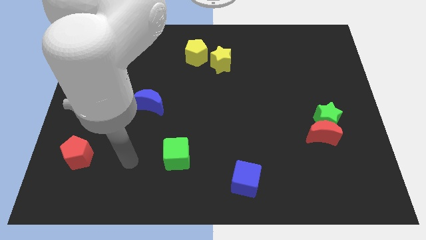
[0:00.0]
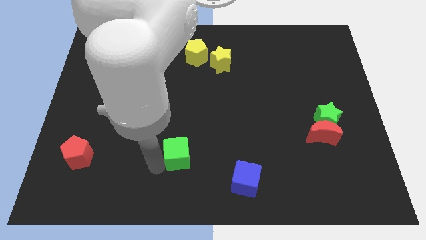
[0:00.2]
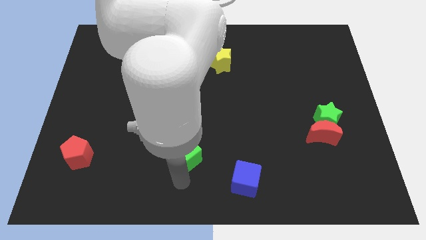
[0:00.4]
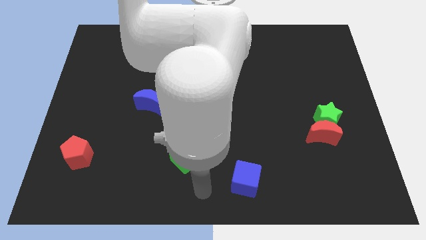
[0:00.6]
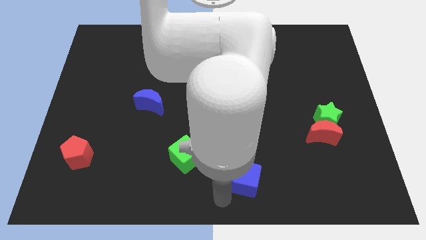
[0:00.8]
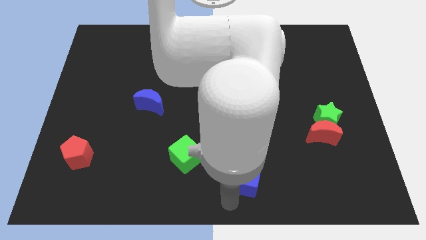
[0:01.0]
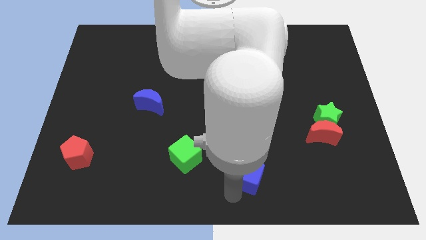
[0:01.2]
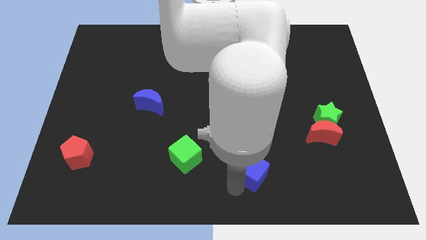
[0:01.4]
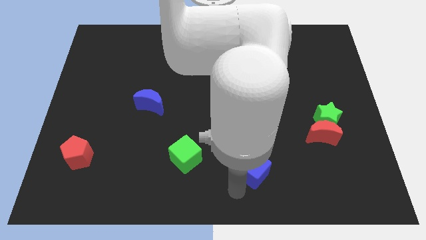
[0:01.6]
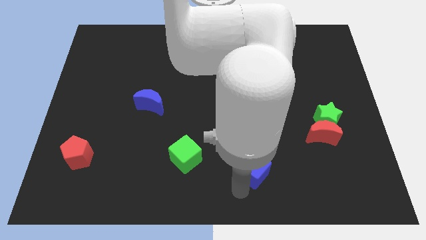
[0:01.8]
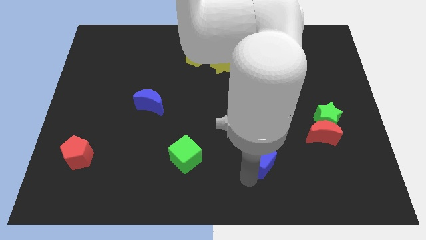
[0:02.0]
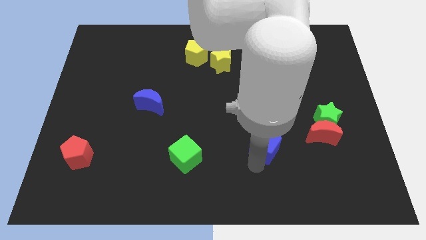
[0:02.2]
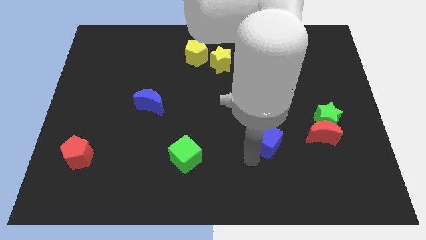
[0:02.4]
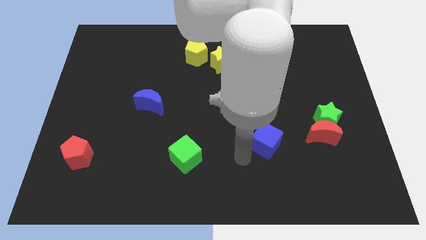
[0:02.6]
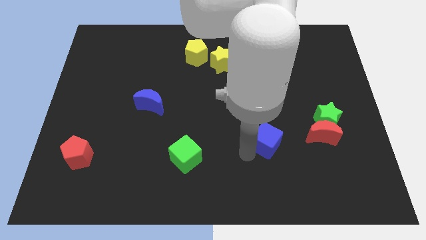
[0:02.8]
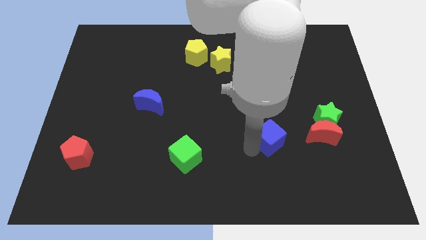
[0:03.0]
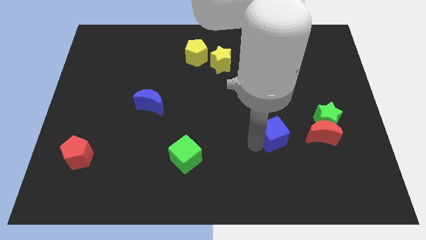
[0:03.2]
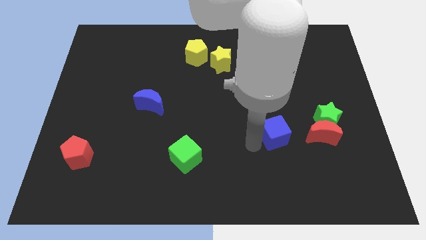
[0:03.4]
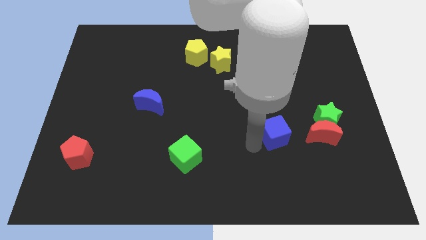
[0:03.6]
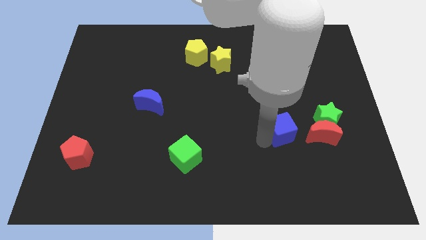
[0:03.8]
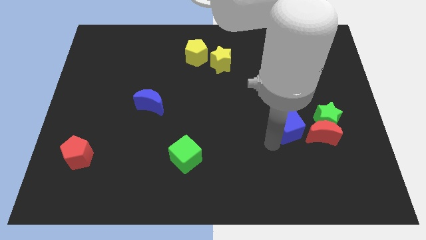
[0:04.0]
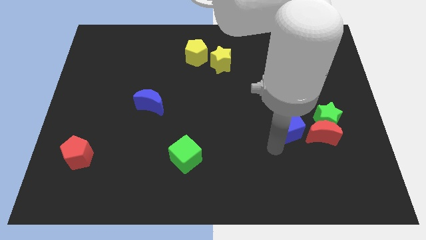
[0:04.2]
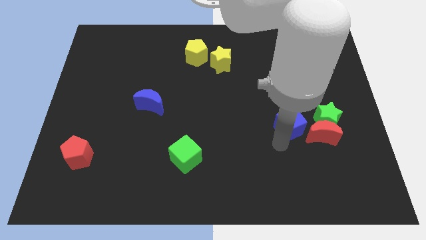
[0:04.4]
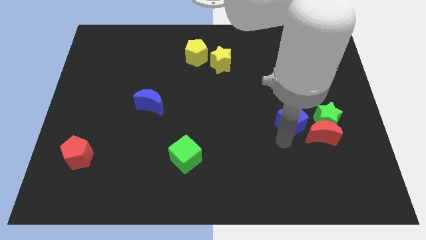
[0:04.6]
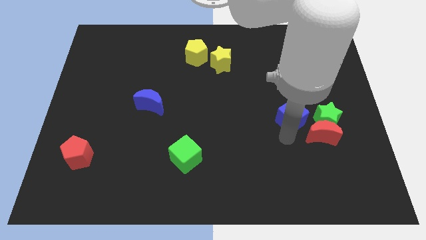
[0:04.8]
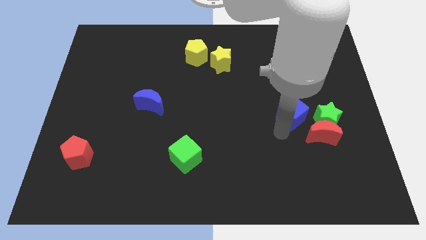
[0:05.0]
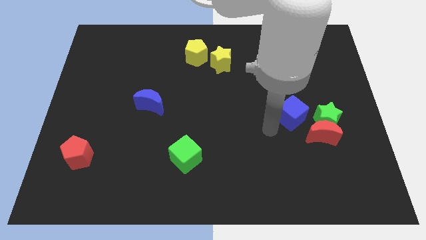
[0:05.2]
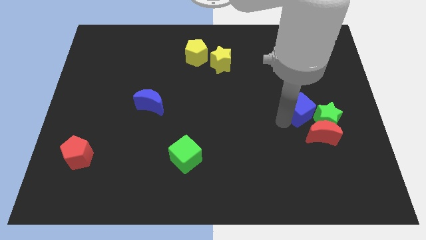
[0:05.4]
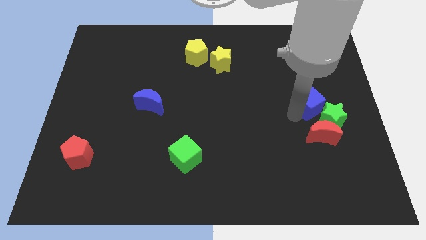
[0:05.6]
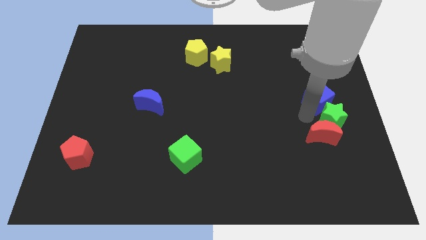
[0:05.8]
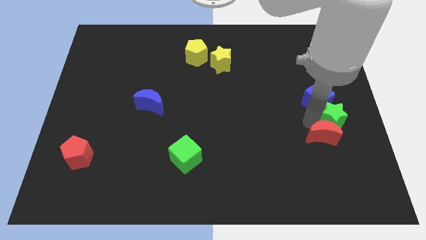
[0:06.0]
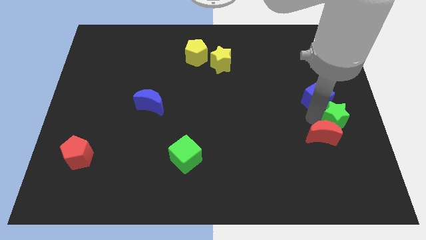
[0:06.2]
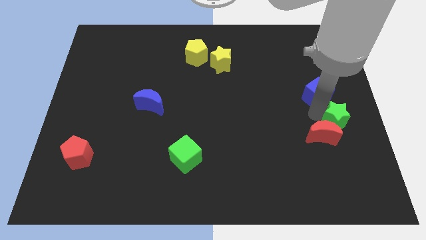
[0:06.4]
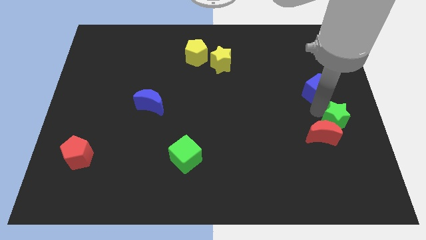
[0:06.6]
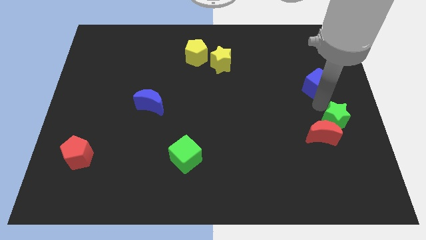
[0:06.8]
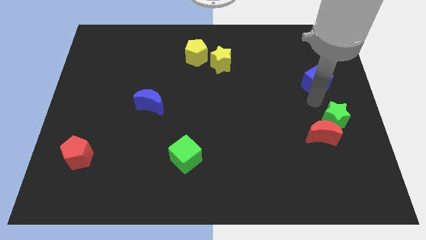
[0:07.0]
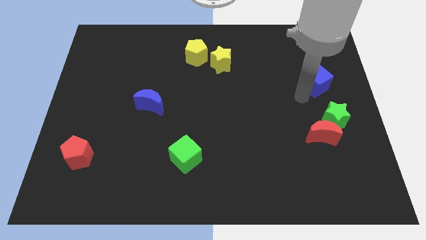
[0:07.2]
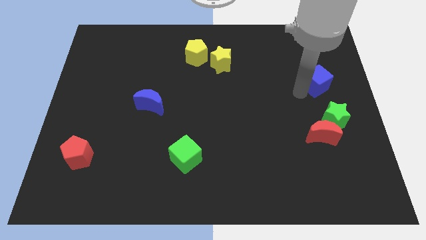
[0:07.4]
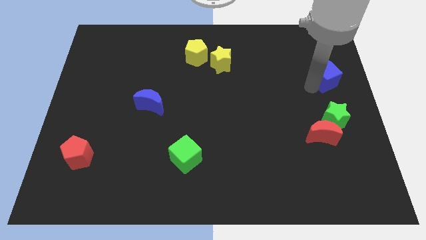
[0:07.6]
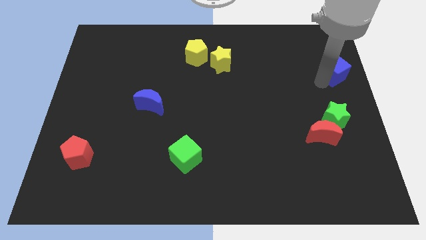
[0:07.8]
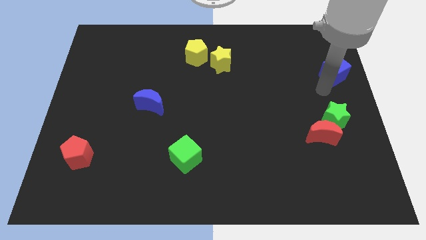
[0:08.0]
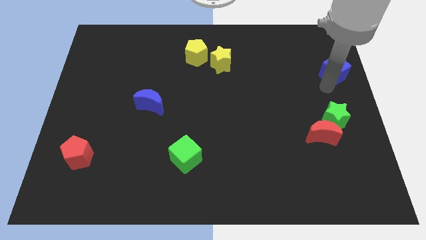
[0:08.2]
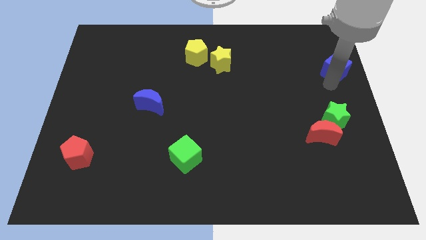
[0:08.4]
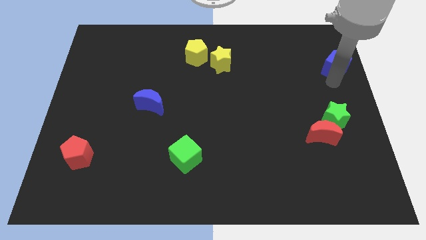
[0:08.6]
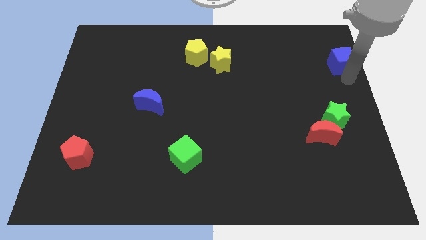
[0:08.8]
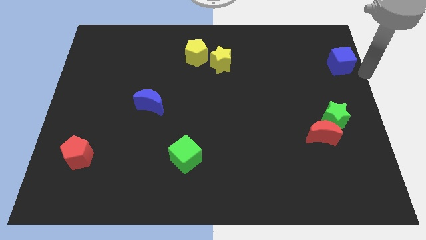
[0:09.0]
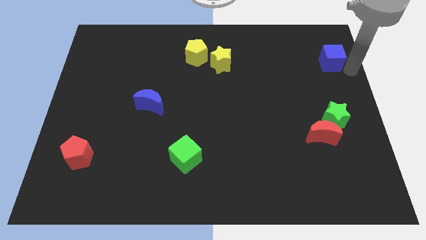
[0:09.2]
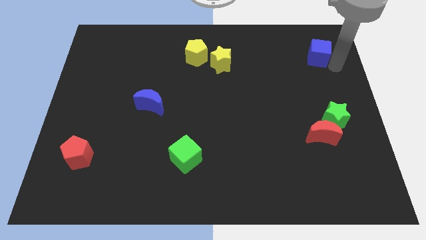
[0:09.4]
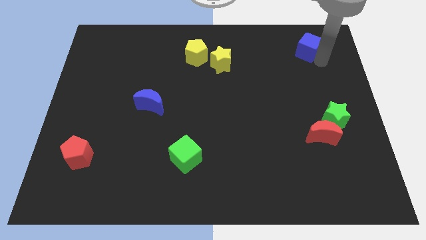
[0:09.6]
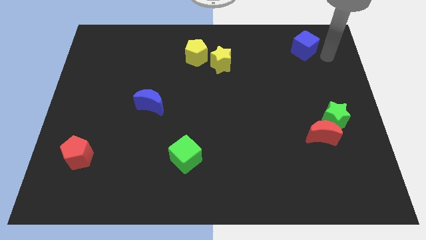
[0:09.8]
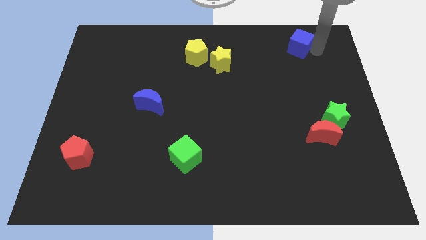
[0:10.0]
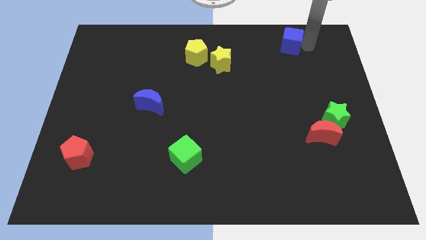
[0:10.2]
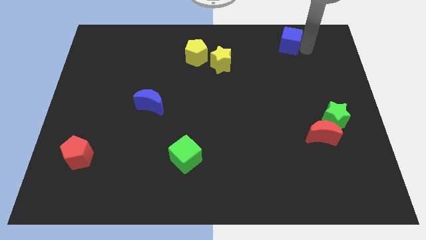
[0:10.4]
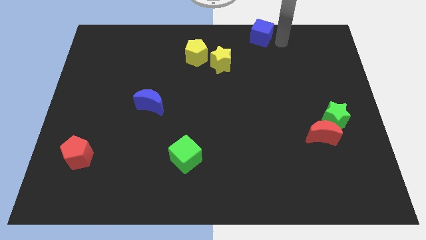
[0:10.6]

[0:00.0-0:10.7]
slide the blue cube to the top side

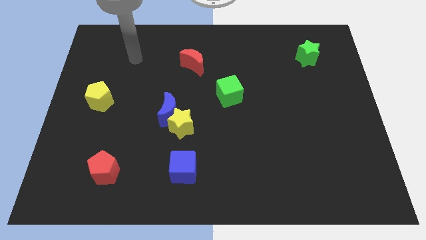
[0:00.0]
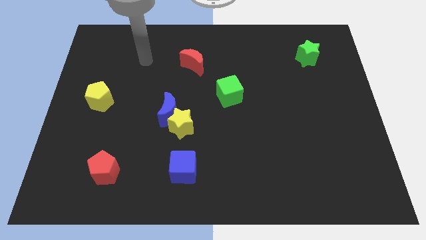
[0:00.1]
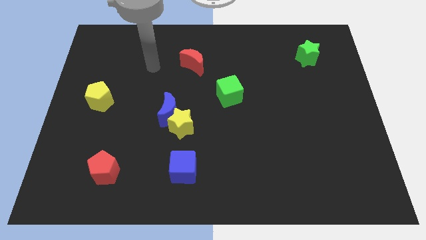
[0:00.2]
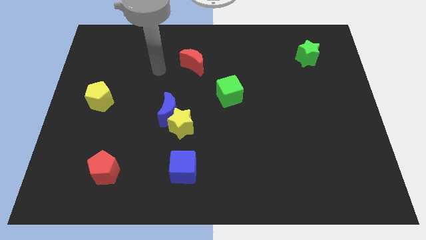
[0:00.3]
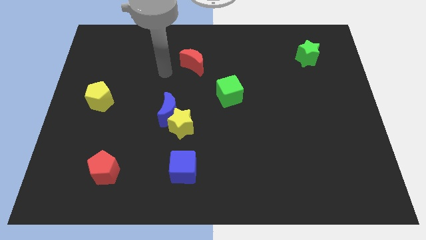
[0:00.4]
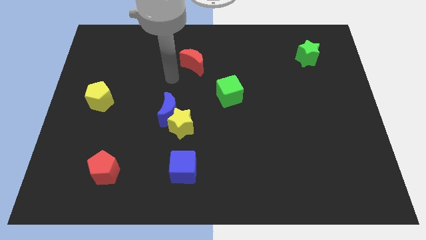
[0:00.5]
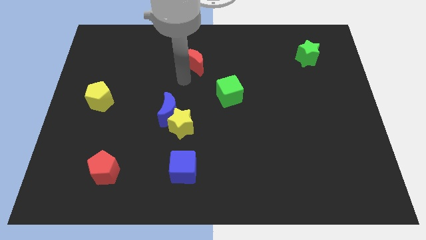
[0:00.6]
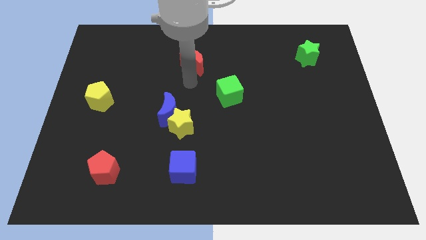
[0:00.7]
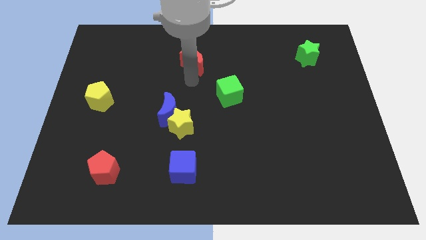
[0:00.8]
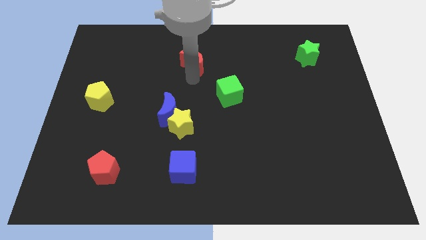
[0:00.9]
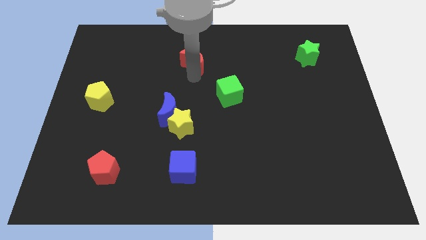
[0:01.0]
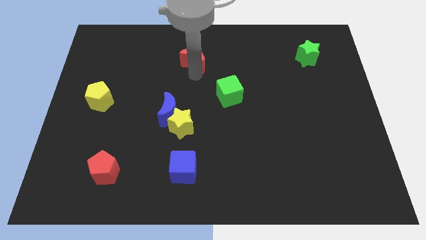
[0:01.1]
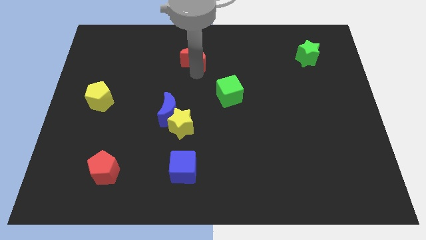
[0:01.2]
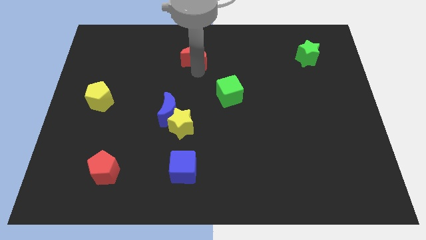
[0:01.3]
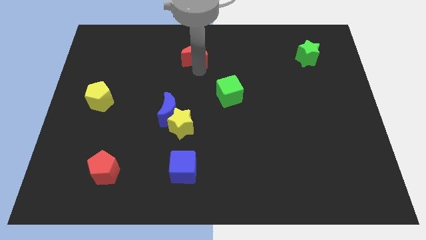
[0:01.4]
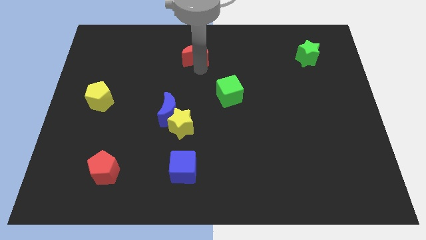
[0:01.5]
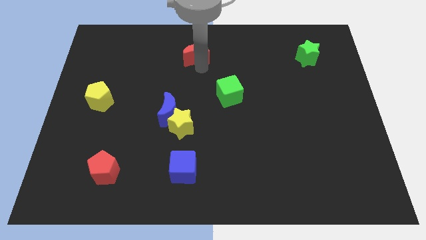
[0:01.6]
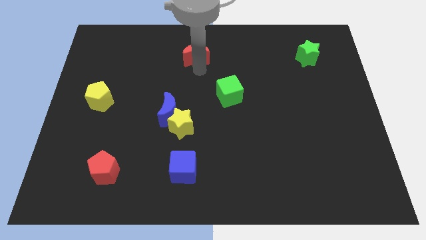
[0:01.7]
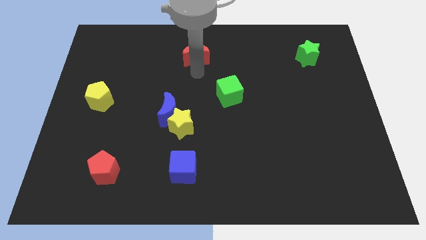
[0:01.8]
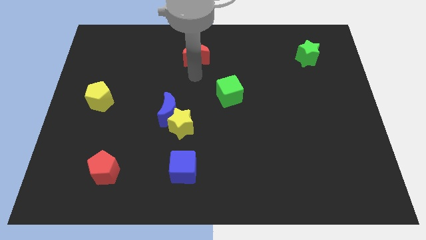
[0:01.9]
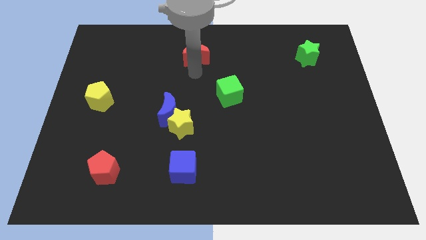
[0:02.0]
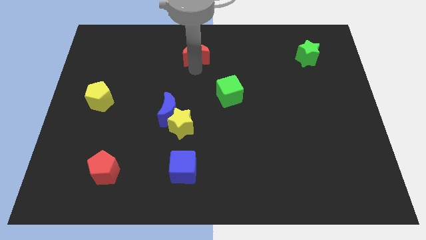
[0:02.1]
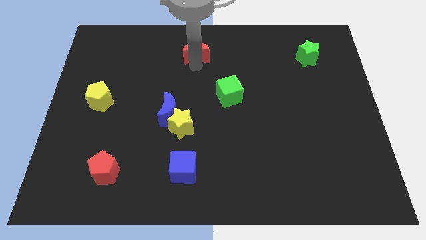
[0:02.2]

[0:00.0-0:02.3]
slide the red moon to the towards your base
